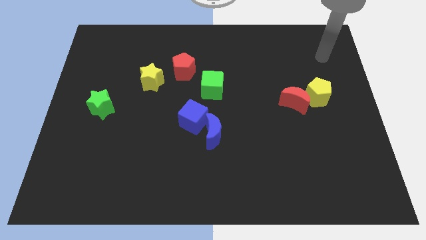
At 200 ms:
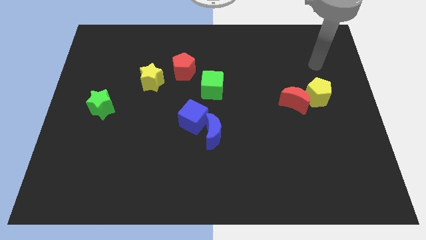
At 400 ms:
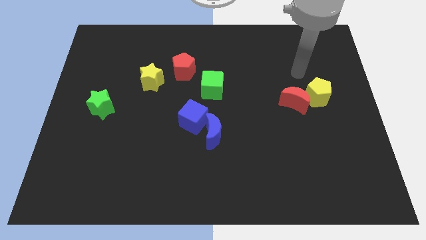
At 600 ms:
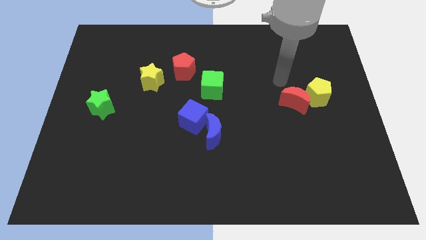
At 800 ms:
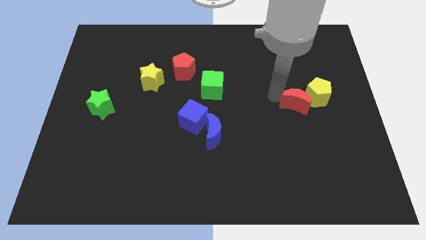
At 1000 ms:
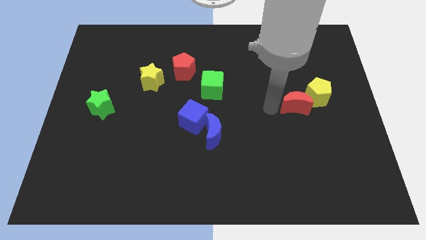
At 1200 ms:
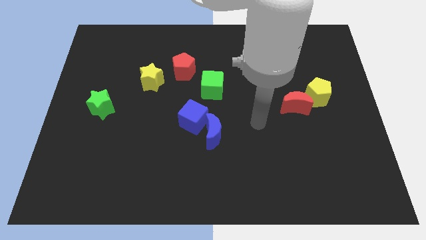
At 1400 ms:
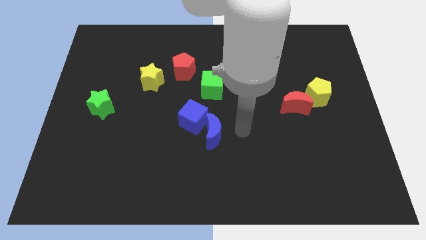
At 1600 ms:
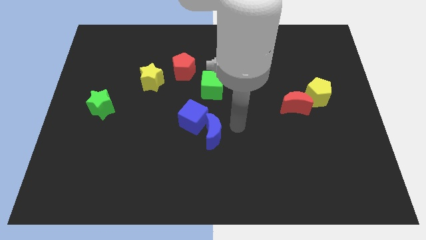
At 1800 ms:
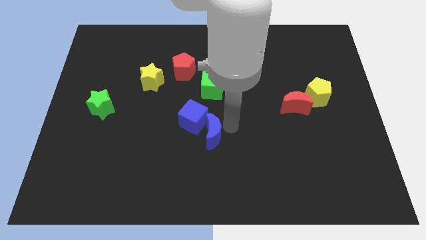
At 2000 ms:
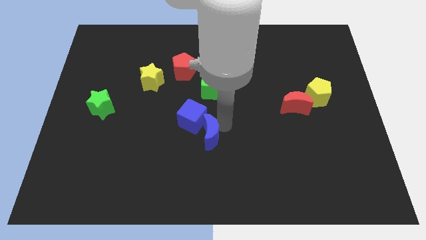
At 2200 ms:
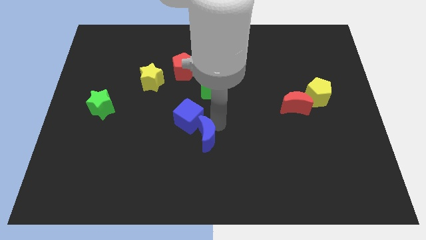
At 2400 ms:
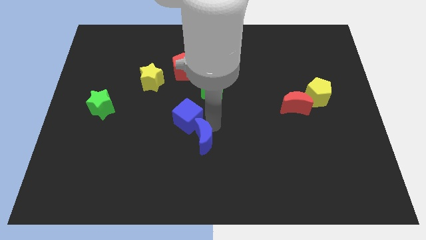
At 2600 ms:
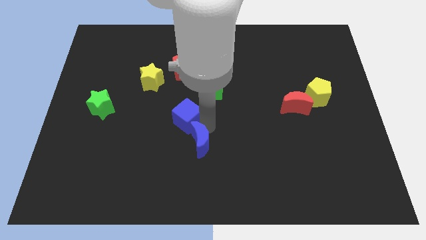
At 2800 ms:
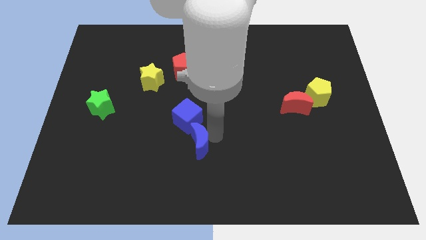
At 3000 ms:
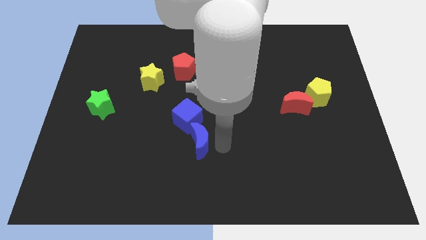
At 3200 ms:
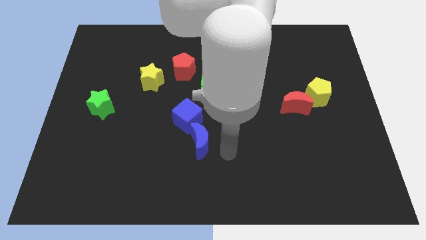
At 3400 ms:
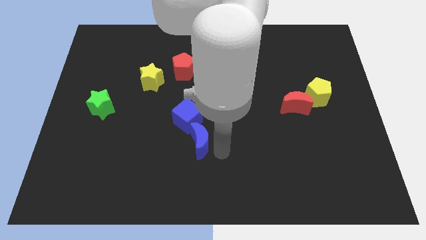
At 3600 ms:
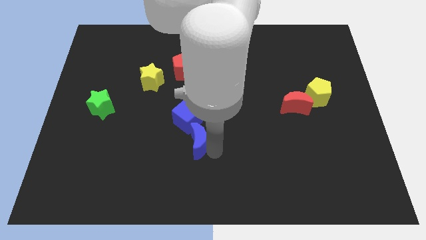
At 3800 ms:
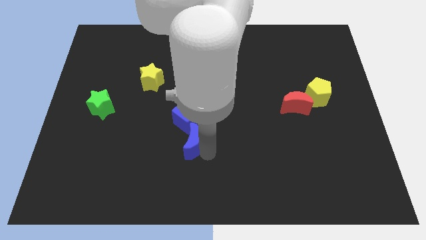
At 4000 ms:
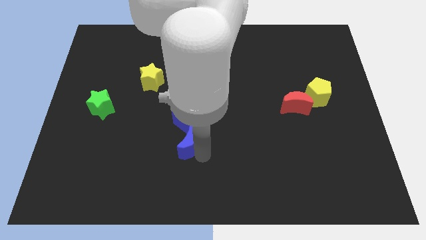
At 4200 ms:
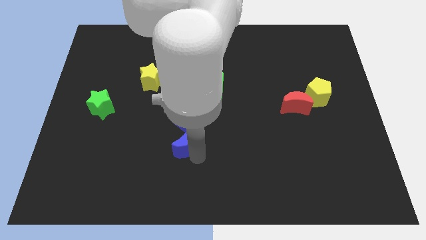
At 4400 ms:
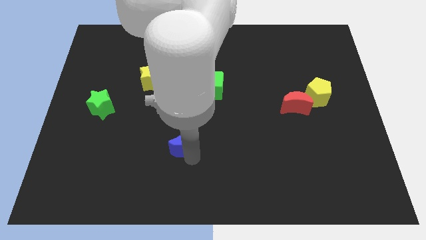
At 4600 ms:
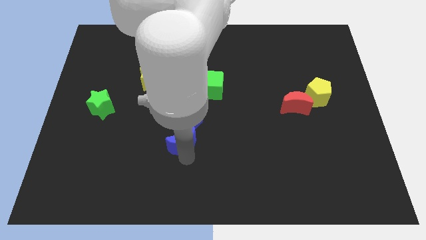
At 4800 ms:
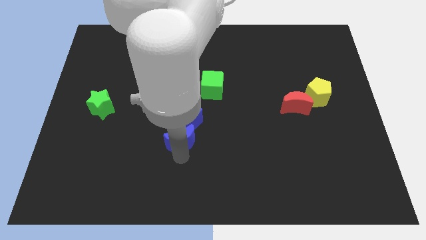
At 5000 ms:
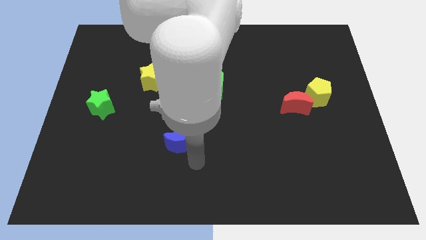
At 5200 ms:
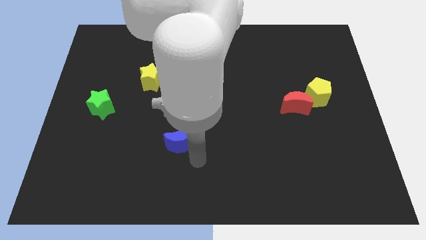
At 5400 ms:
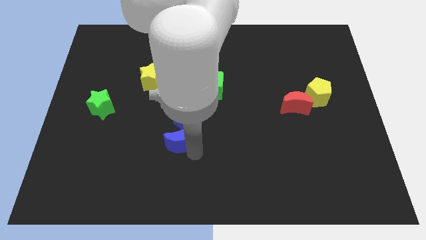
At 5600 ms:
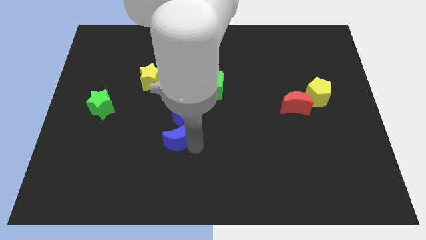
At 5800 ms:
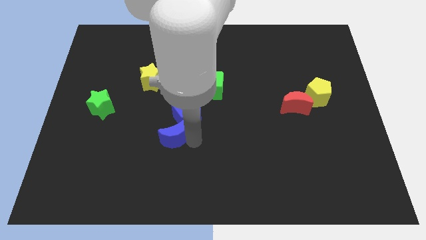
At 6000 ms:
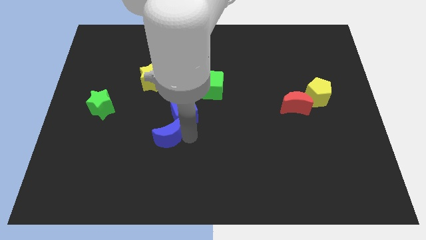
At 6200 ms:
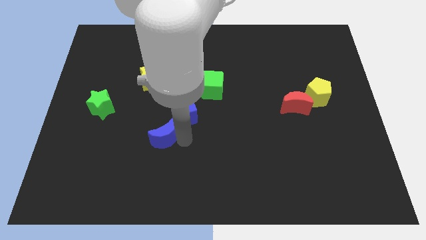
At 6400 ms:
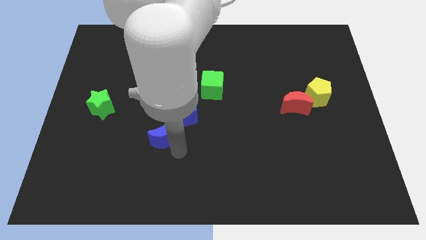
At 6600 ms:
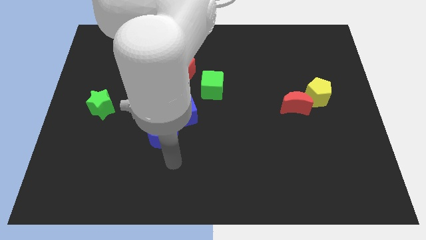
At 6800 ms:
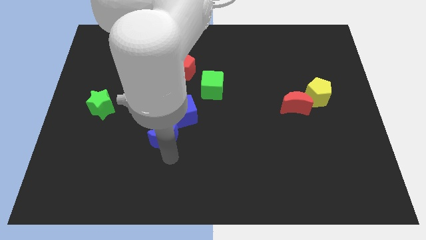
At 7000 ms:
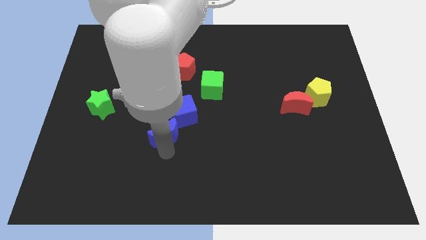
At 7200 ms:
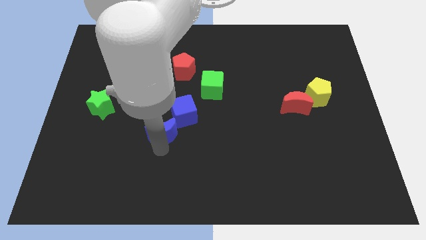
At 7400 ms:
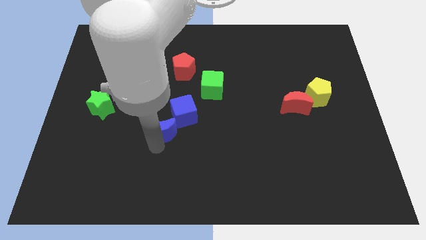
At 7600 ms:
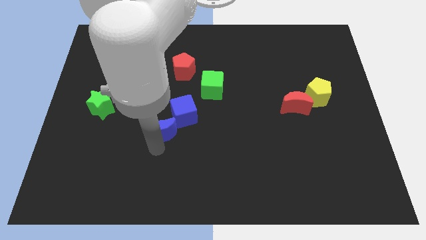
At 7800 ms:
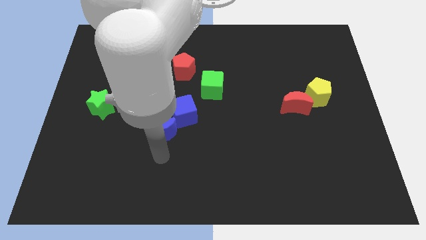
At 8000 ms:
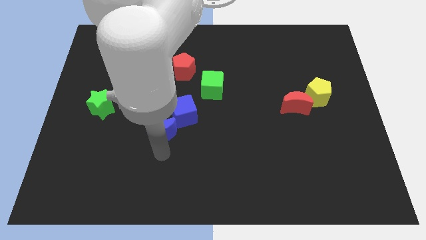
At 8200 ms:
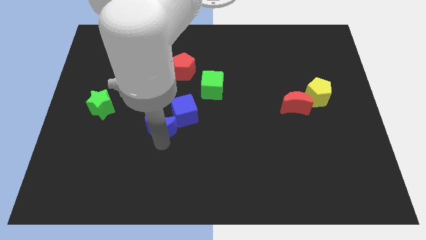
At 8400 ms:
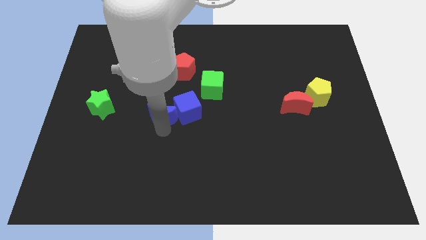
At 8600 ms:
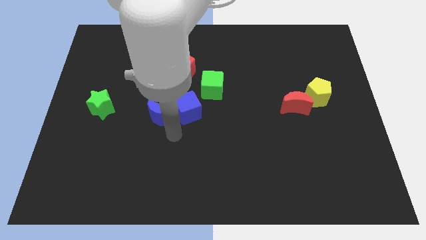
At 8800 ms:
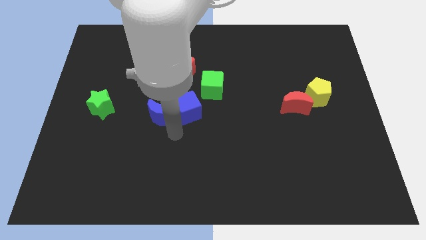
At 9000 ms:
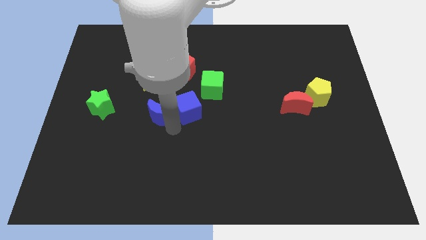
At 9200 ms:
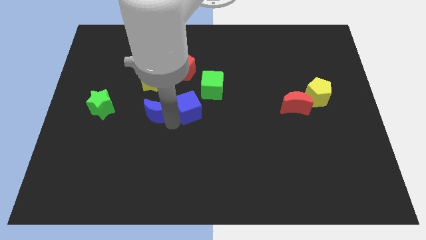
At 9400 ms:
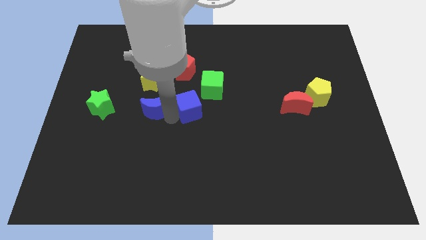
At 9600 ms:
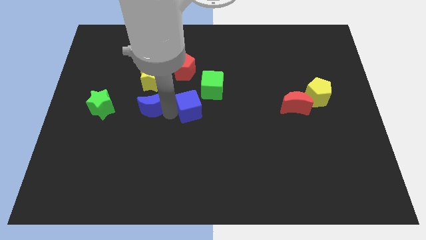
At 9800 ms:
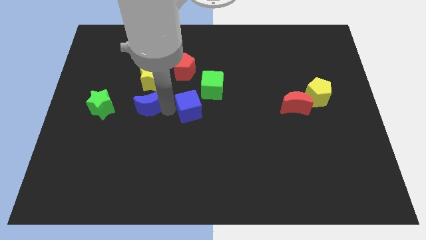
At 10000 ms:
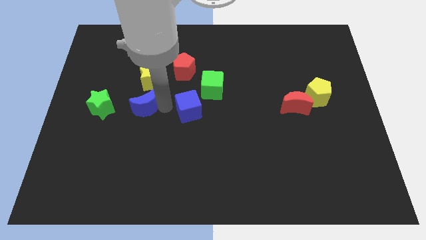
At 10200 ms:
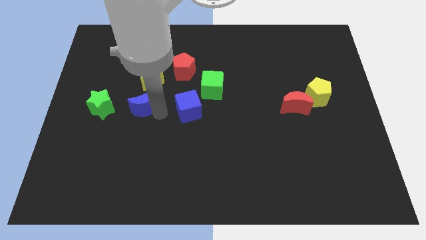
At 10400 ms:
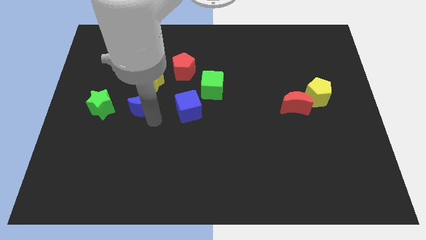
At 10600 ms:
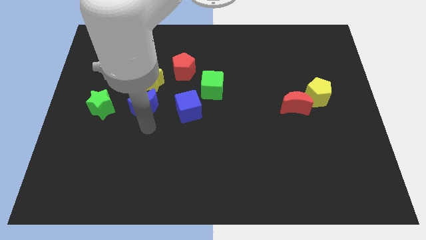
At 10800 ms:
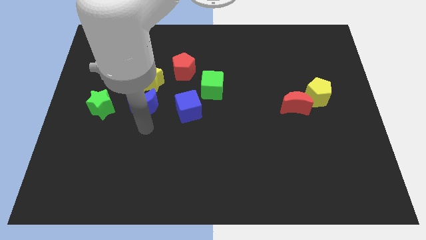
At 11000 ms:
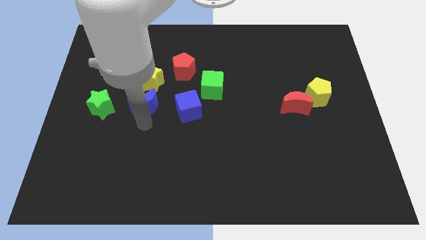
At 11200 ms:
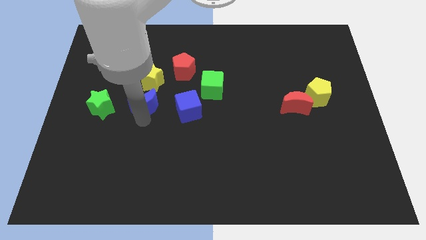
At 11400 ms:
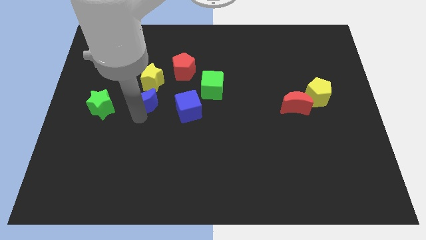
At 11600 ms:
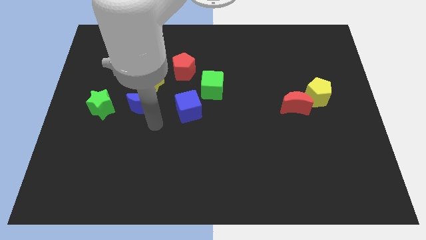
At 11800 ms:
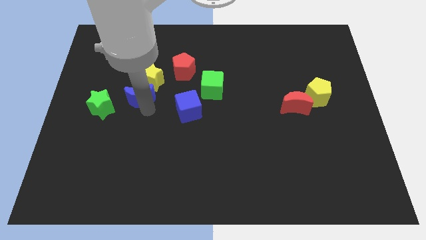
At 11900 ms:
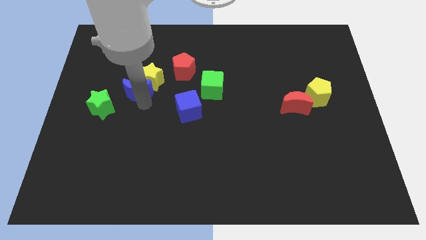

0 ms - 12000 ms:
move the blue moon upwards and to the left diagonally

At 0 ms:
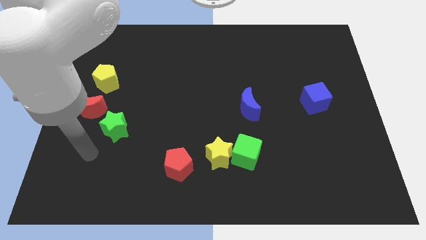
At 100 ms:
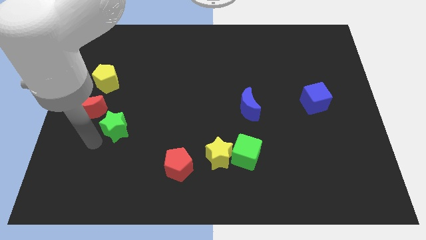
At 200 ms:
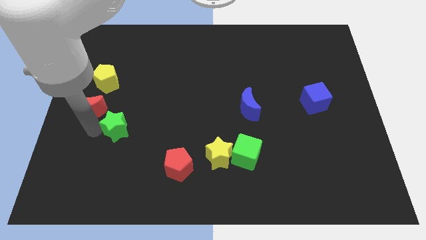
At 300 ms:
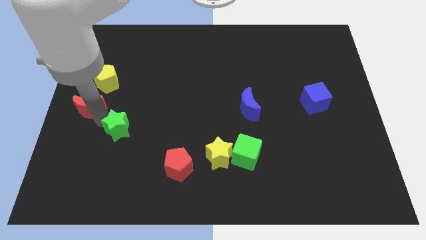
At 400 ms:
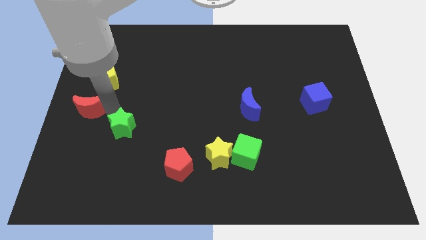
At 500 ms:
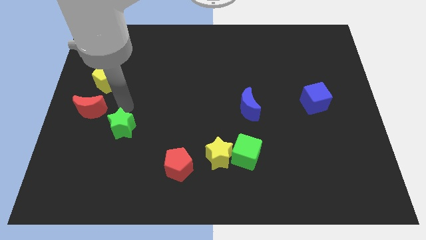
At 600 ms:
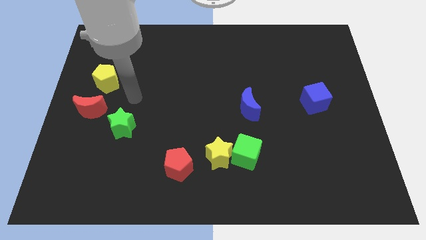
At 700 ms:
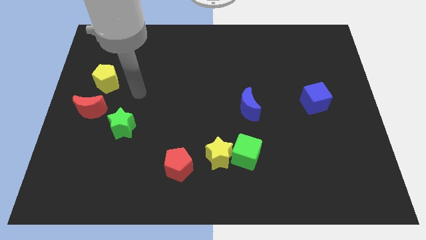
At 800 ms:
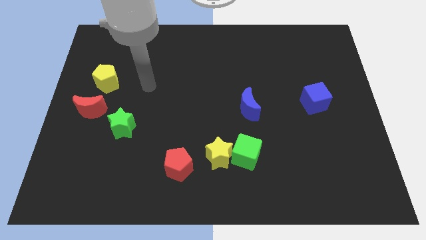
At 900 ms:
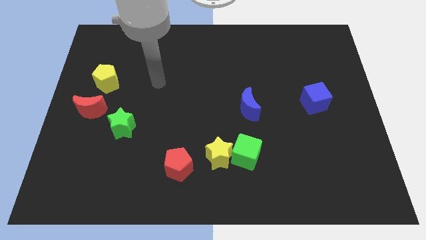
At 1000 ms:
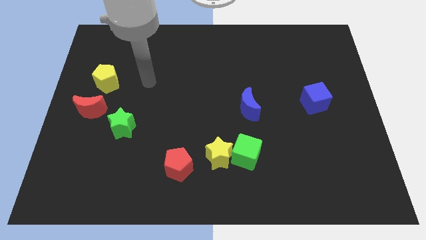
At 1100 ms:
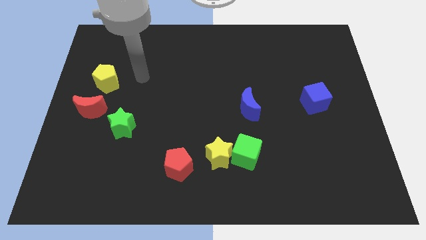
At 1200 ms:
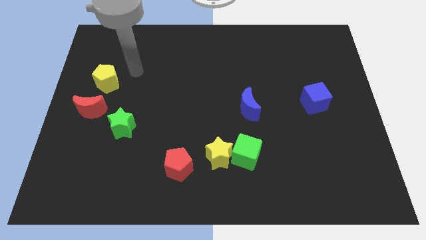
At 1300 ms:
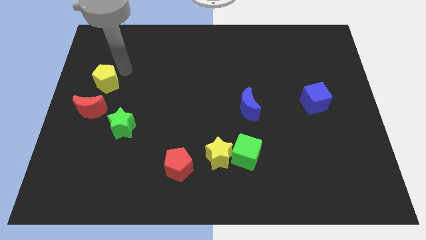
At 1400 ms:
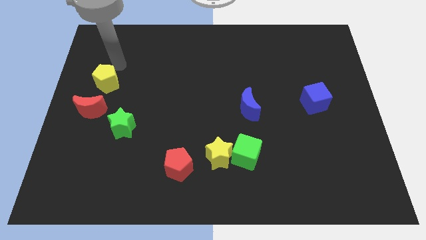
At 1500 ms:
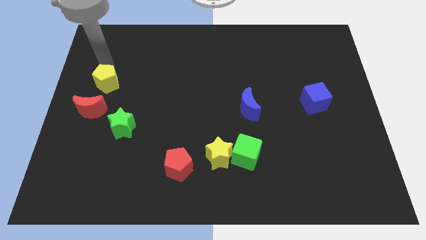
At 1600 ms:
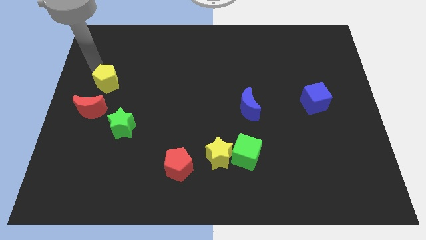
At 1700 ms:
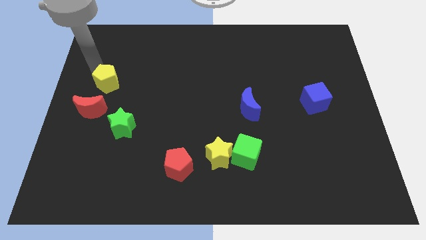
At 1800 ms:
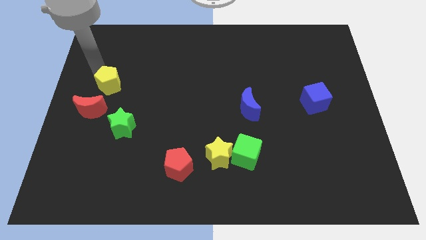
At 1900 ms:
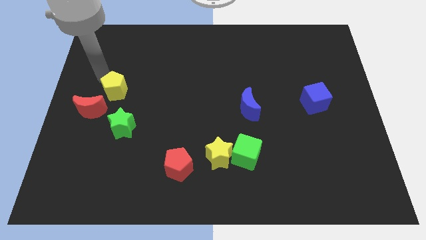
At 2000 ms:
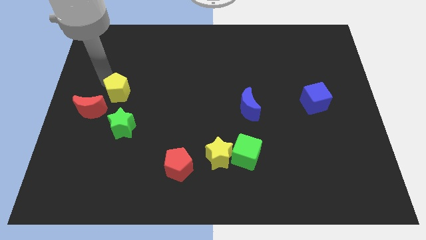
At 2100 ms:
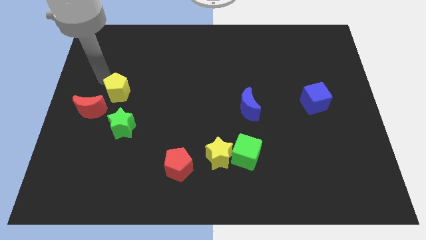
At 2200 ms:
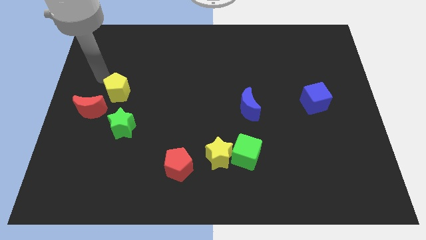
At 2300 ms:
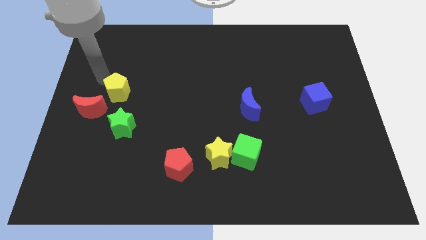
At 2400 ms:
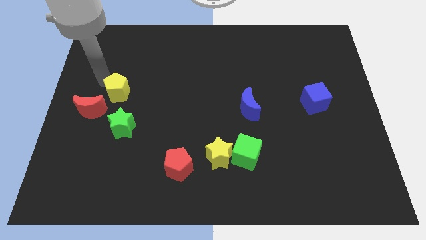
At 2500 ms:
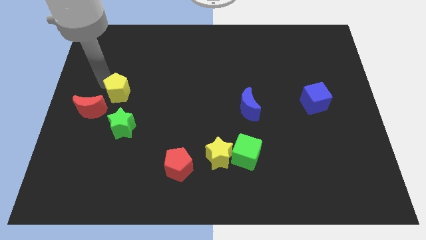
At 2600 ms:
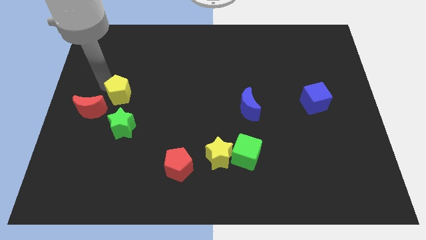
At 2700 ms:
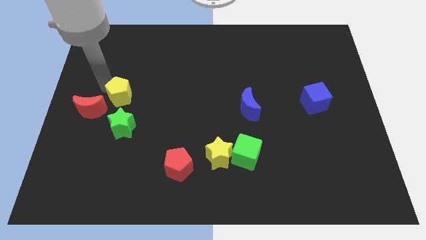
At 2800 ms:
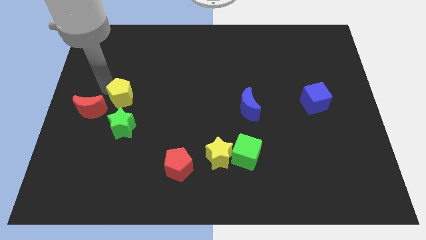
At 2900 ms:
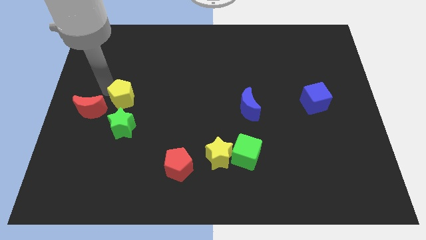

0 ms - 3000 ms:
push the yellow pentagon down and right a little
